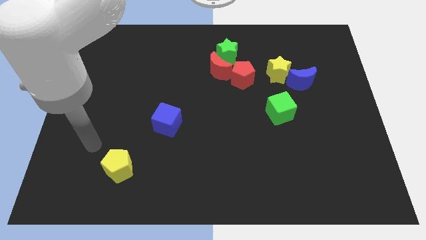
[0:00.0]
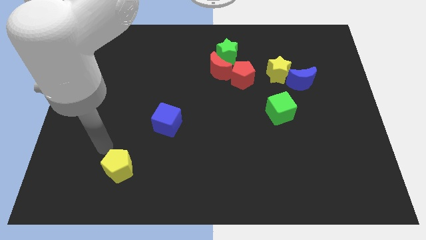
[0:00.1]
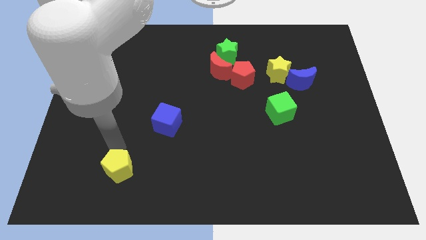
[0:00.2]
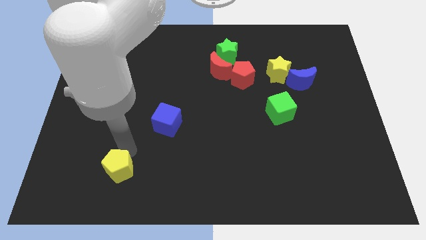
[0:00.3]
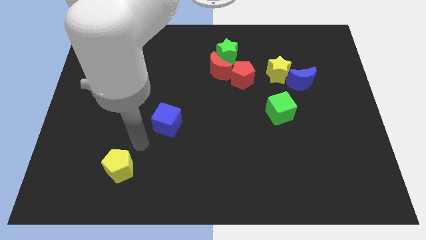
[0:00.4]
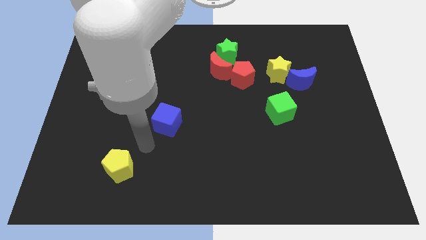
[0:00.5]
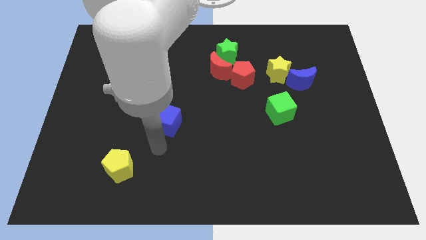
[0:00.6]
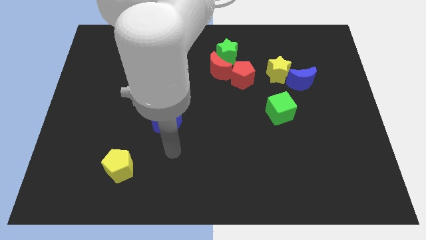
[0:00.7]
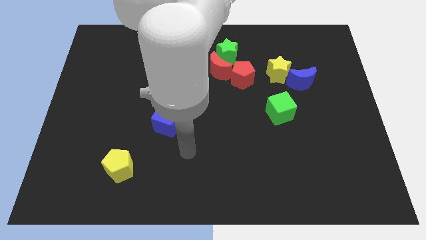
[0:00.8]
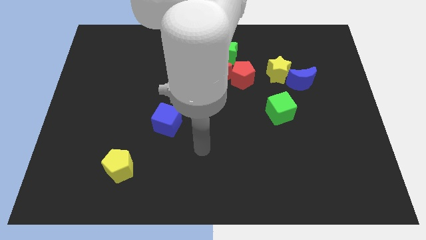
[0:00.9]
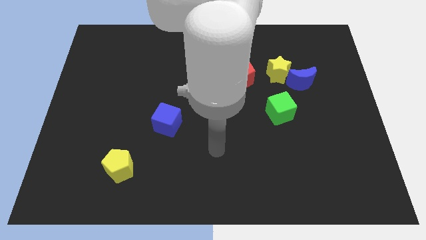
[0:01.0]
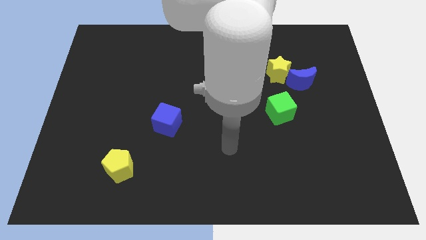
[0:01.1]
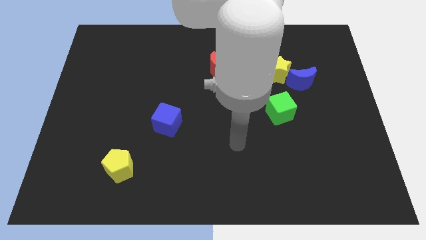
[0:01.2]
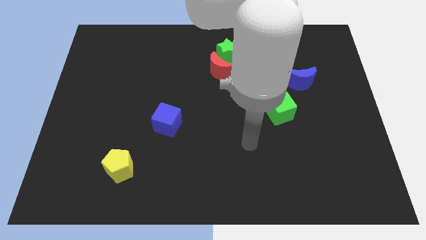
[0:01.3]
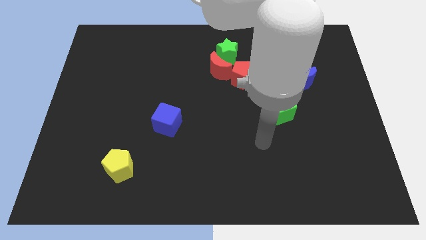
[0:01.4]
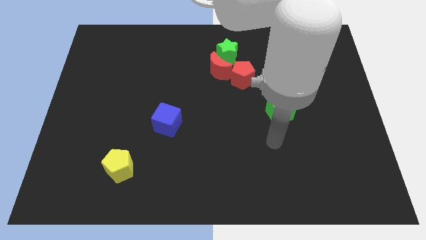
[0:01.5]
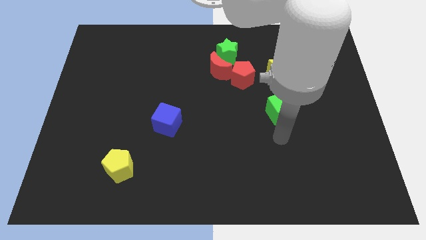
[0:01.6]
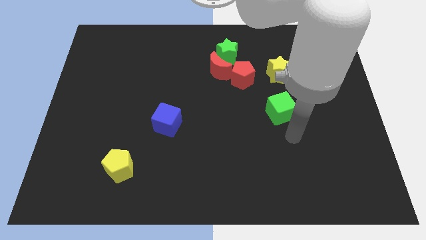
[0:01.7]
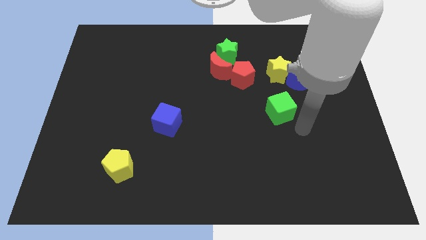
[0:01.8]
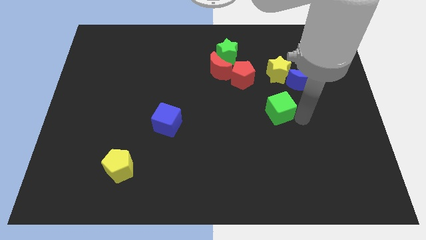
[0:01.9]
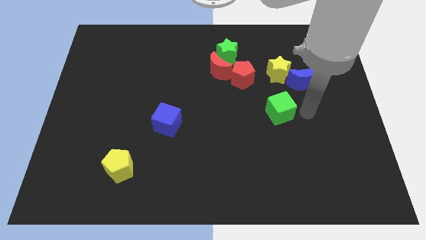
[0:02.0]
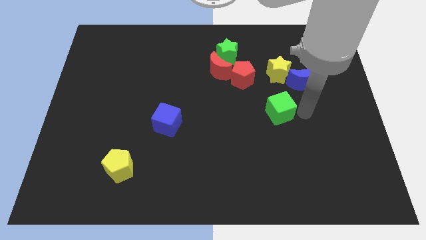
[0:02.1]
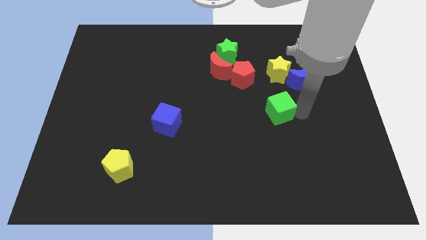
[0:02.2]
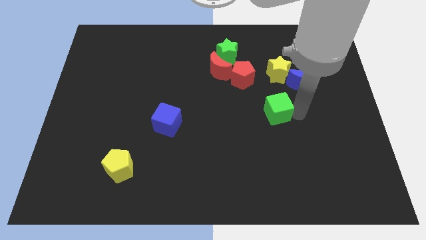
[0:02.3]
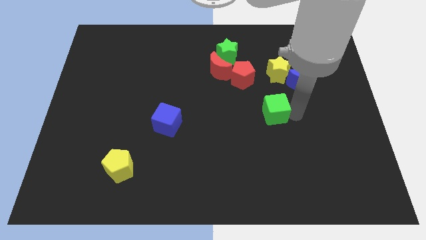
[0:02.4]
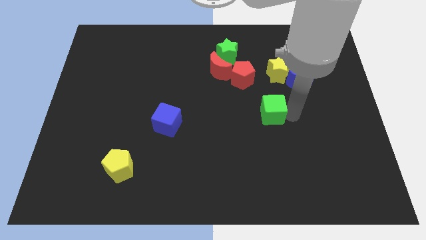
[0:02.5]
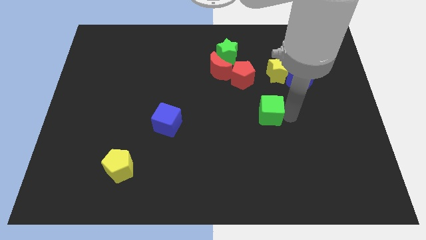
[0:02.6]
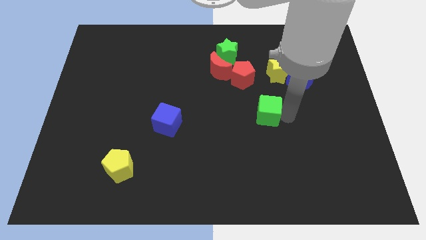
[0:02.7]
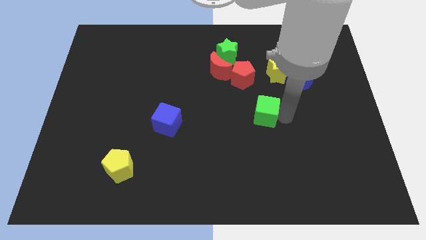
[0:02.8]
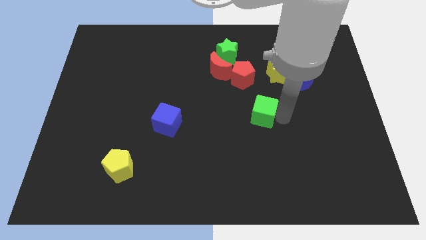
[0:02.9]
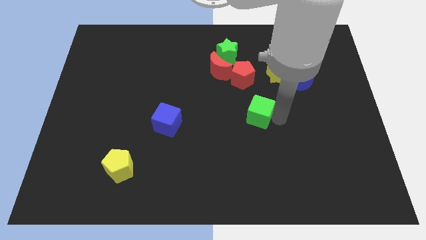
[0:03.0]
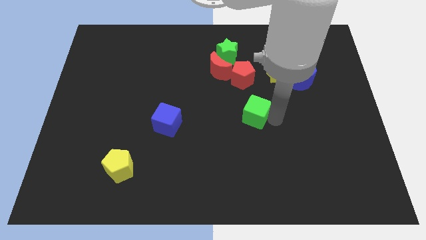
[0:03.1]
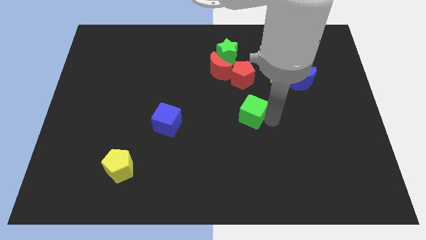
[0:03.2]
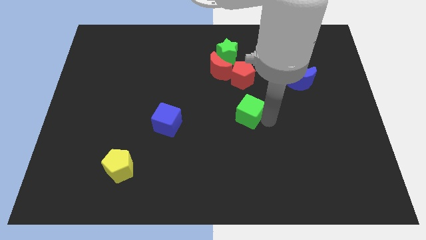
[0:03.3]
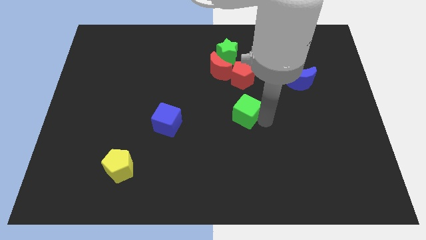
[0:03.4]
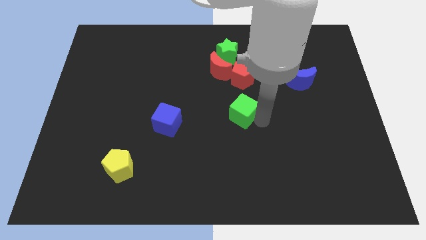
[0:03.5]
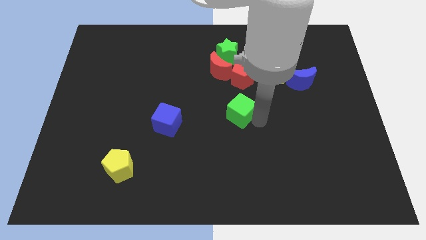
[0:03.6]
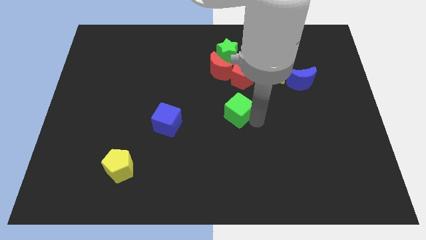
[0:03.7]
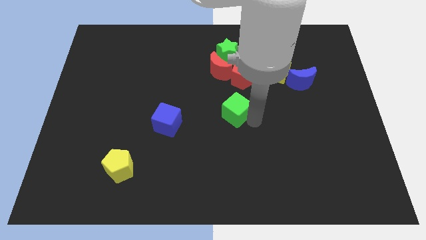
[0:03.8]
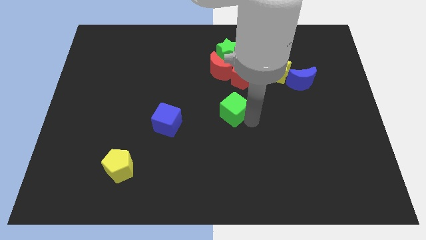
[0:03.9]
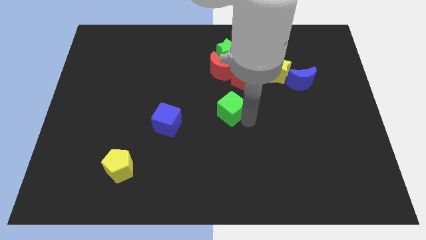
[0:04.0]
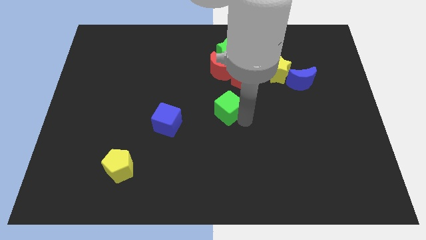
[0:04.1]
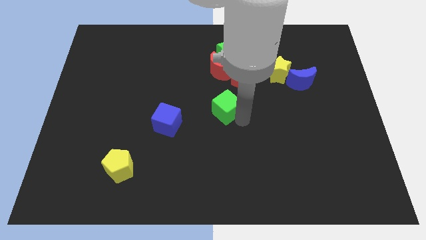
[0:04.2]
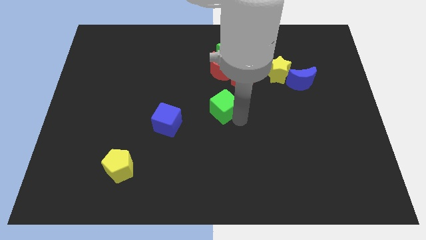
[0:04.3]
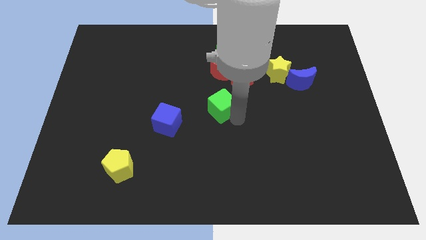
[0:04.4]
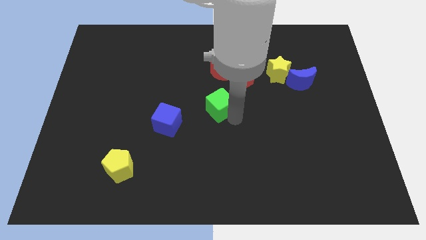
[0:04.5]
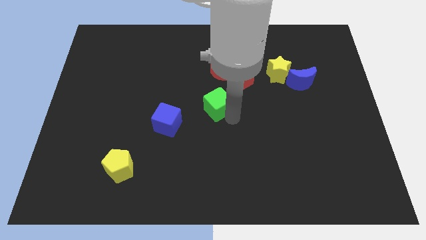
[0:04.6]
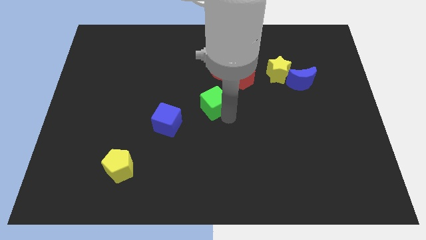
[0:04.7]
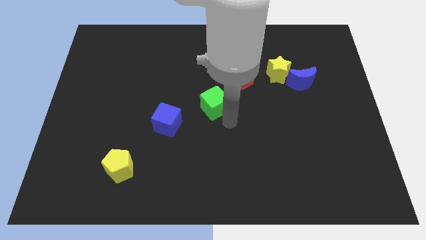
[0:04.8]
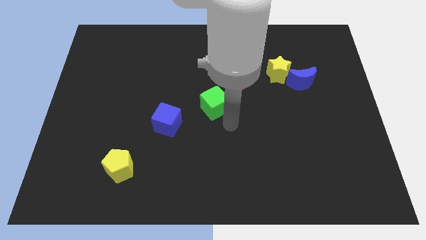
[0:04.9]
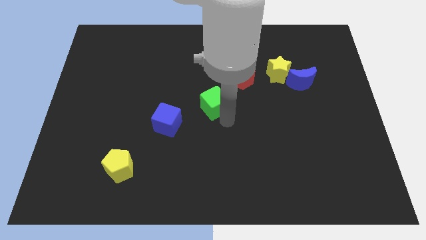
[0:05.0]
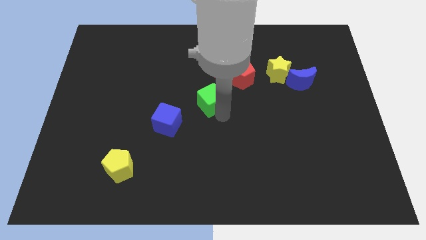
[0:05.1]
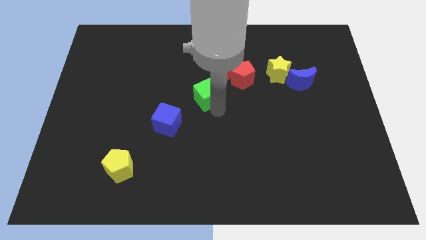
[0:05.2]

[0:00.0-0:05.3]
move the green cube to the bottom left side of the red moon

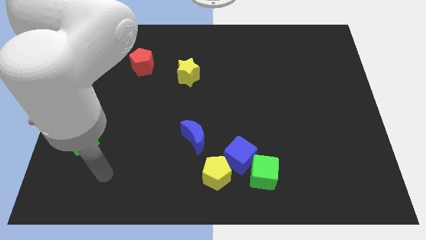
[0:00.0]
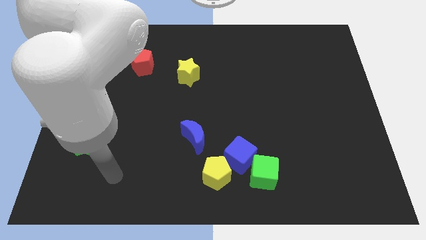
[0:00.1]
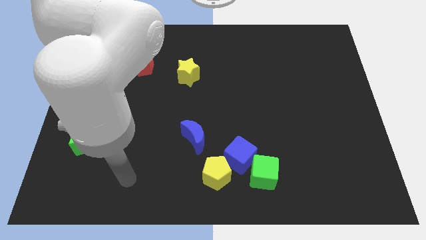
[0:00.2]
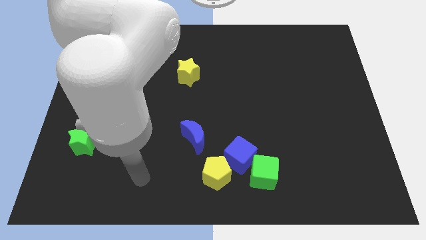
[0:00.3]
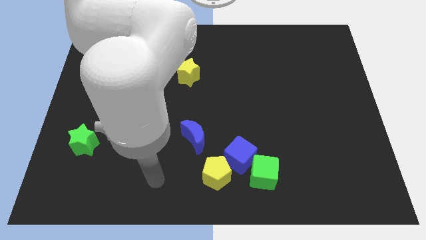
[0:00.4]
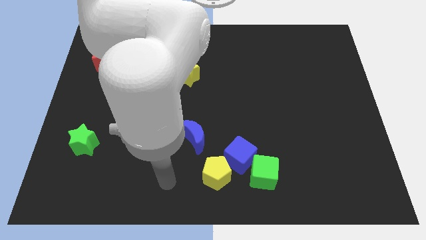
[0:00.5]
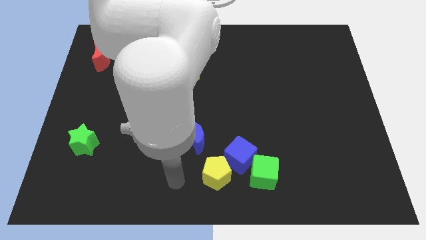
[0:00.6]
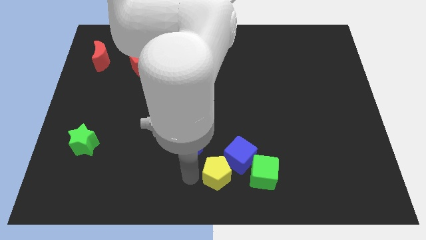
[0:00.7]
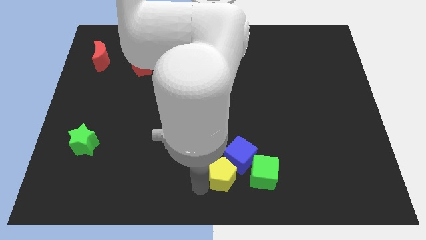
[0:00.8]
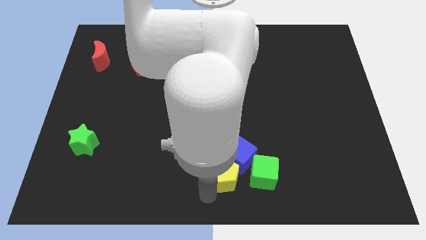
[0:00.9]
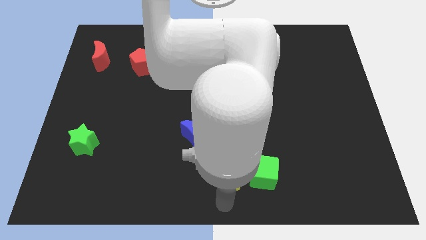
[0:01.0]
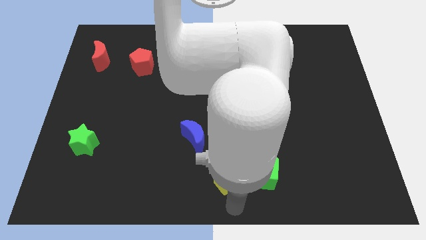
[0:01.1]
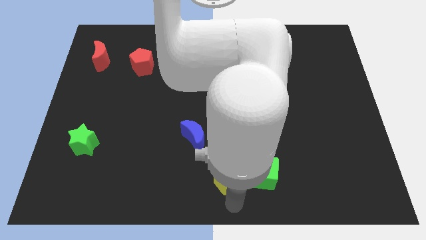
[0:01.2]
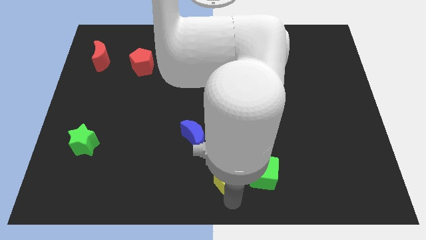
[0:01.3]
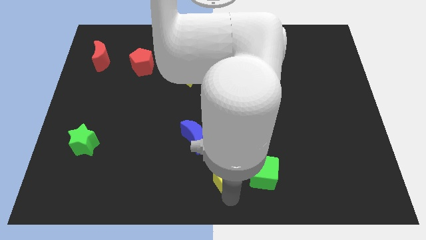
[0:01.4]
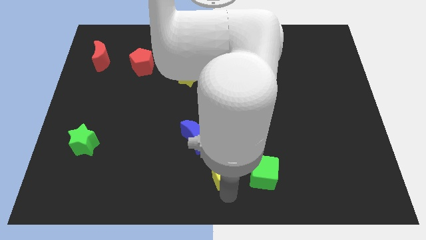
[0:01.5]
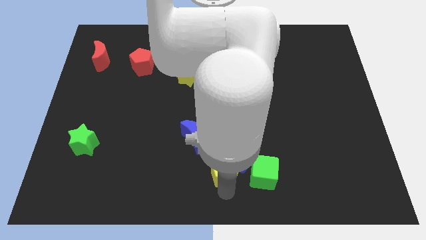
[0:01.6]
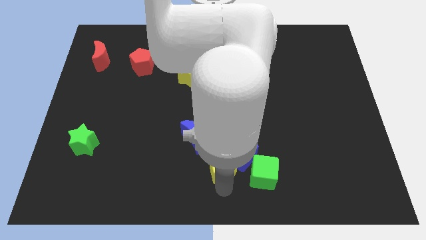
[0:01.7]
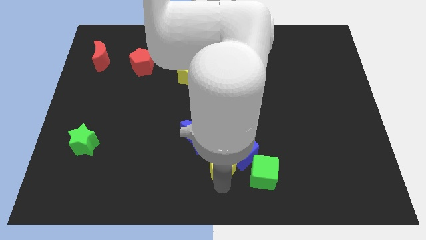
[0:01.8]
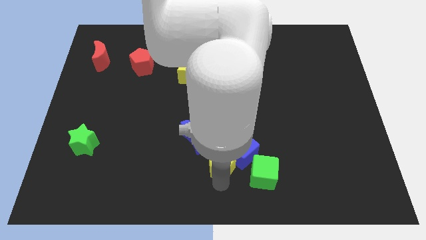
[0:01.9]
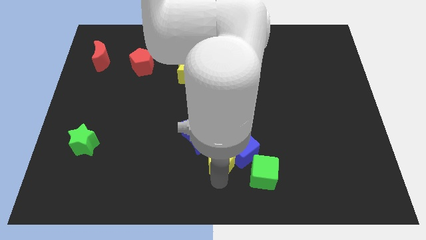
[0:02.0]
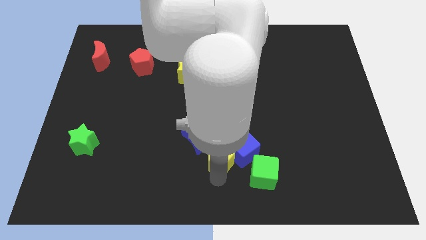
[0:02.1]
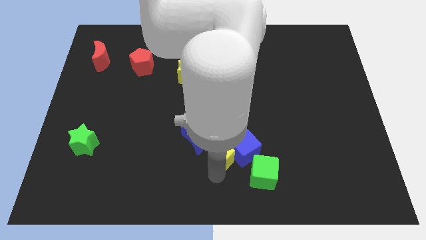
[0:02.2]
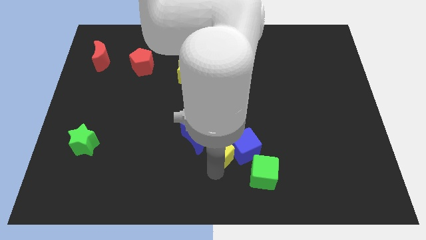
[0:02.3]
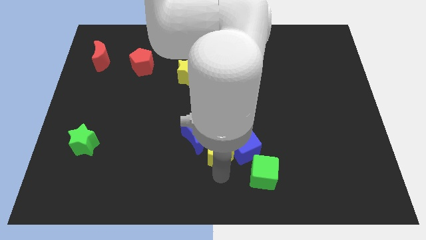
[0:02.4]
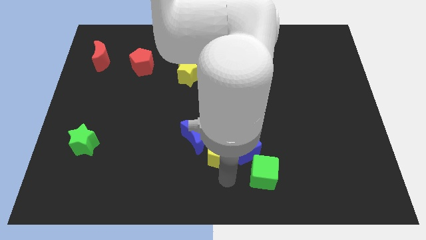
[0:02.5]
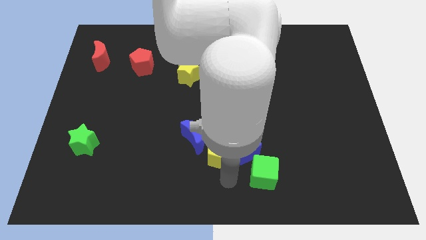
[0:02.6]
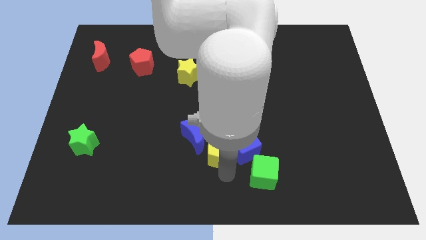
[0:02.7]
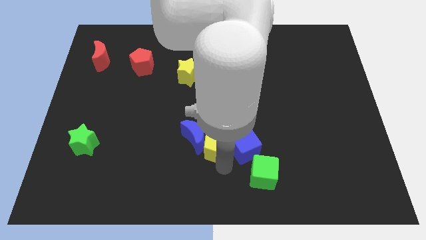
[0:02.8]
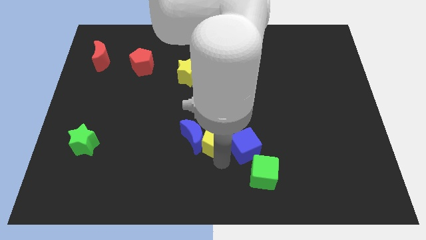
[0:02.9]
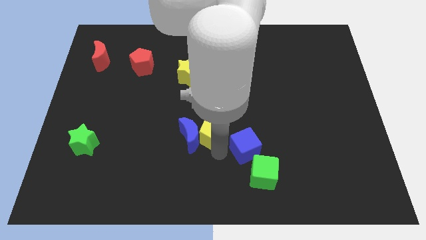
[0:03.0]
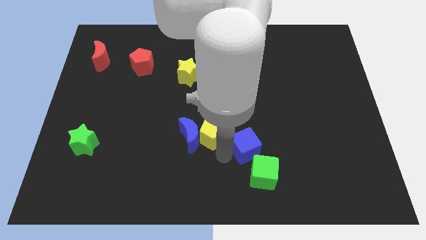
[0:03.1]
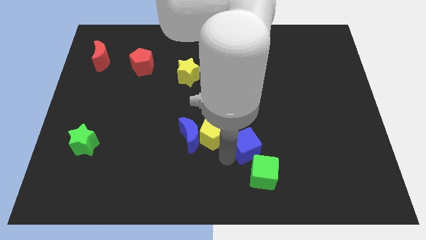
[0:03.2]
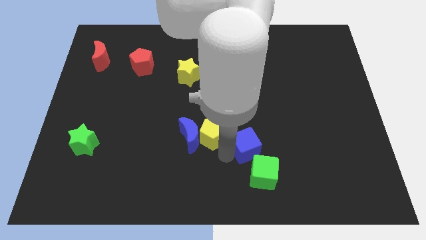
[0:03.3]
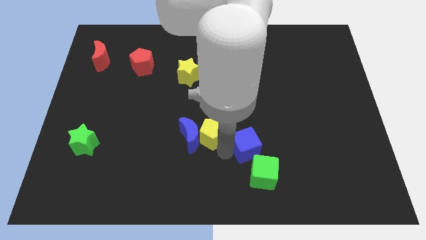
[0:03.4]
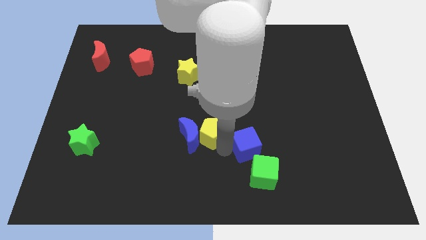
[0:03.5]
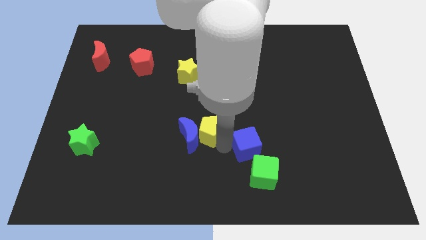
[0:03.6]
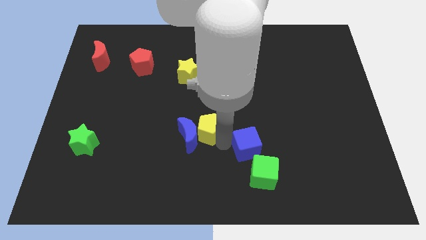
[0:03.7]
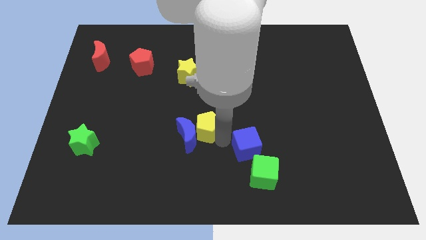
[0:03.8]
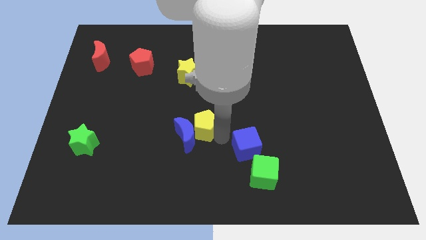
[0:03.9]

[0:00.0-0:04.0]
push the yellow pentagon to the top of the blue moon
